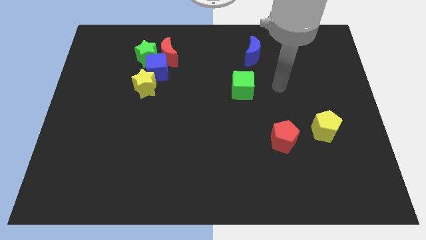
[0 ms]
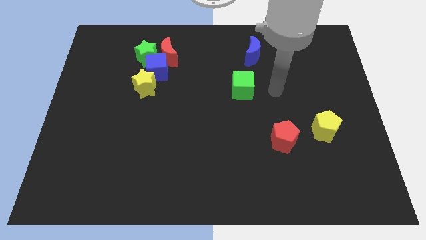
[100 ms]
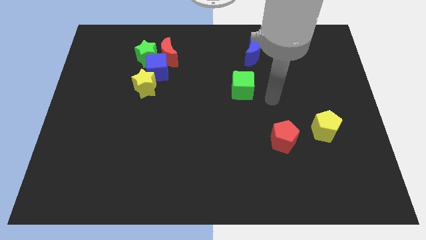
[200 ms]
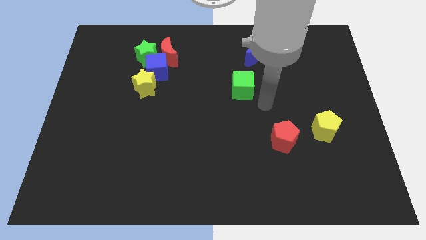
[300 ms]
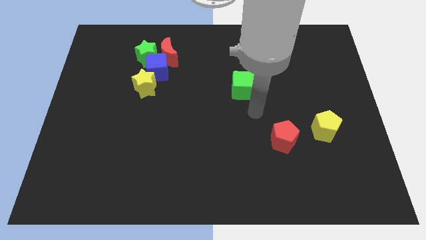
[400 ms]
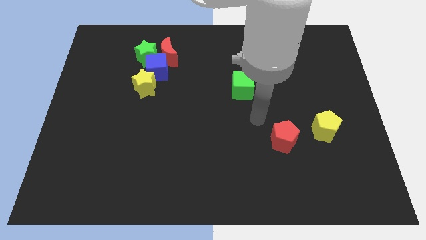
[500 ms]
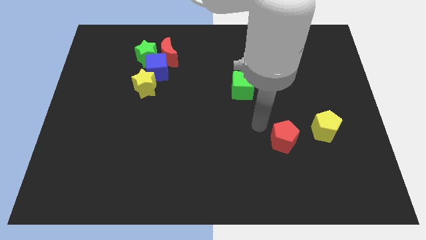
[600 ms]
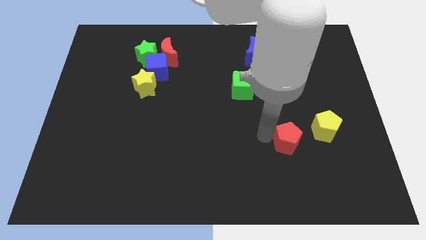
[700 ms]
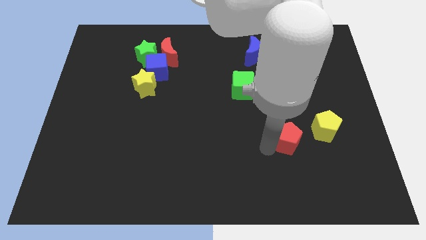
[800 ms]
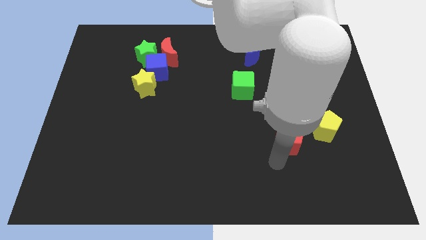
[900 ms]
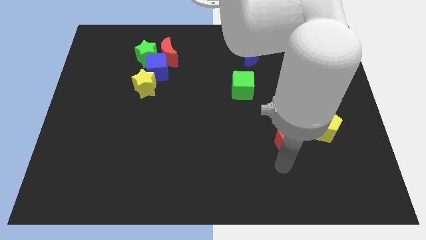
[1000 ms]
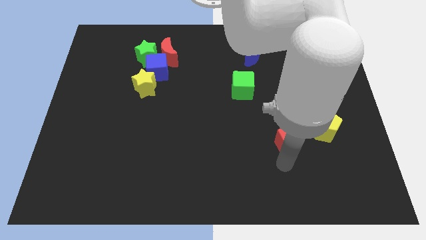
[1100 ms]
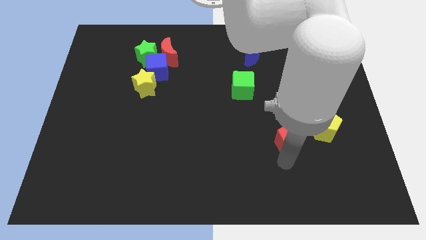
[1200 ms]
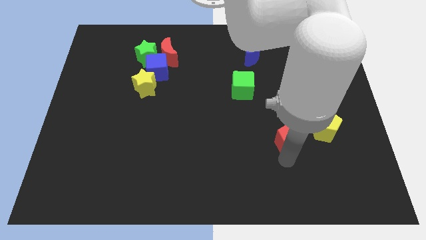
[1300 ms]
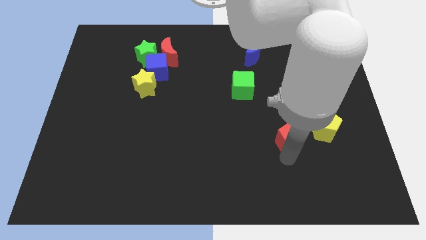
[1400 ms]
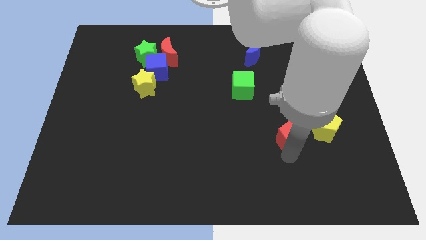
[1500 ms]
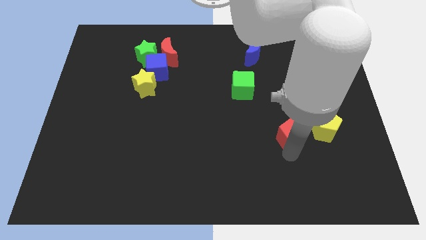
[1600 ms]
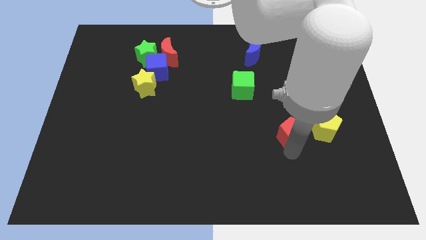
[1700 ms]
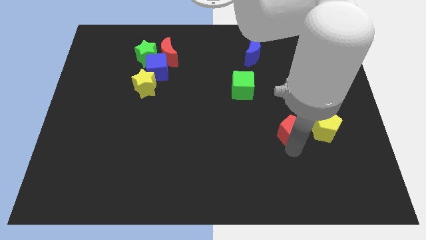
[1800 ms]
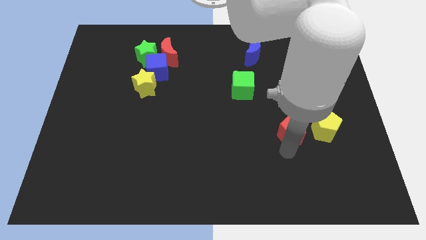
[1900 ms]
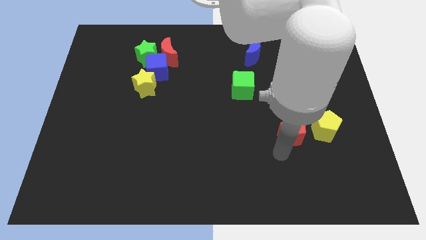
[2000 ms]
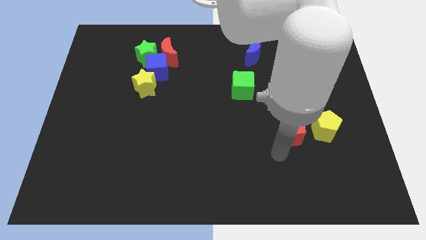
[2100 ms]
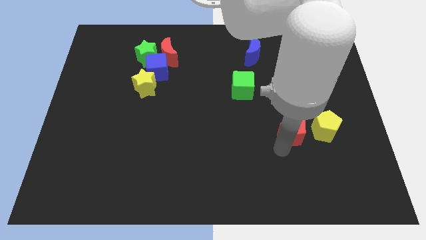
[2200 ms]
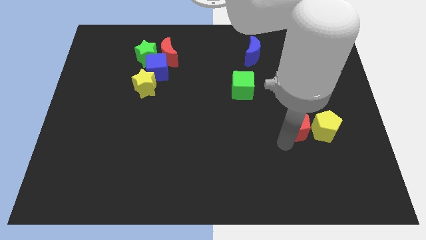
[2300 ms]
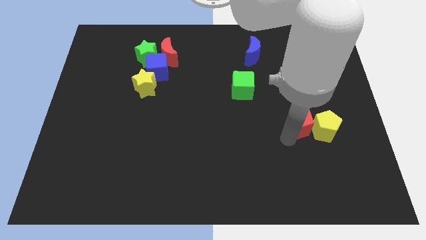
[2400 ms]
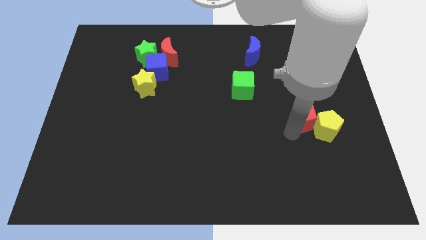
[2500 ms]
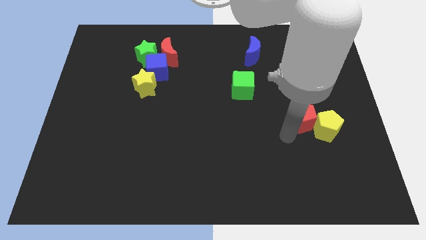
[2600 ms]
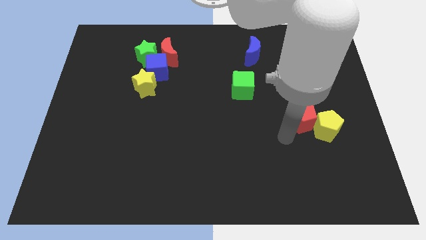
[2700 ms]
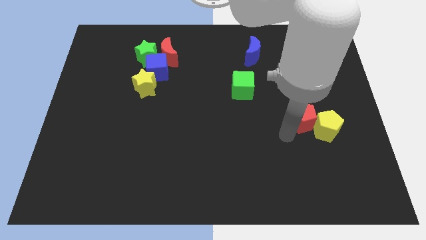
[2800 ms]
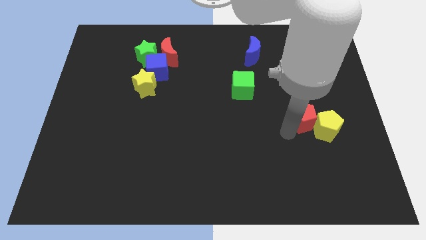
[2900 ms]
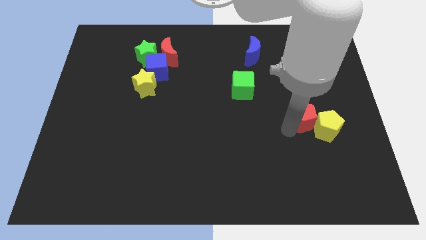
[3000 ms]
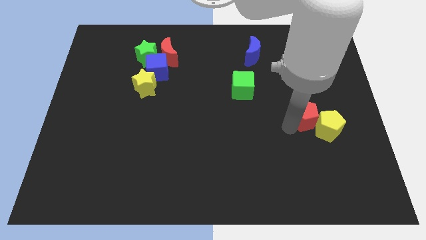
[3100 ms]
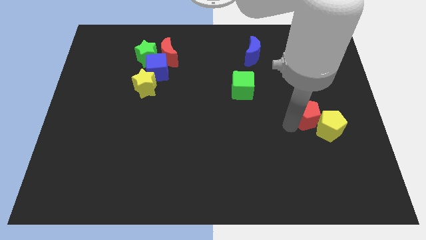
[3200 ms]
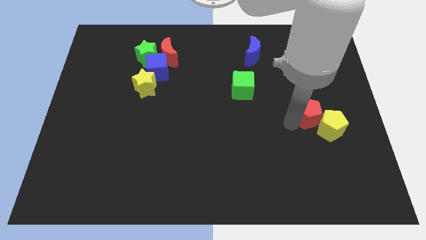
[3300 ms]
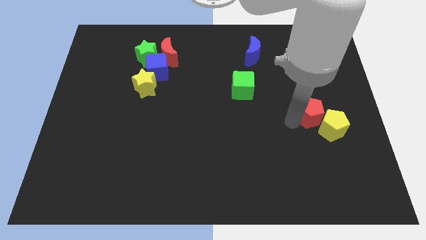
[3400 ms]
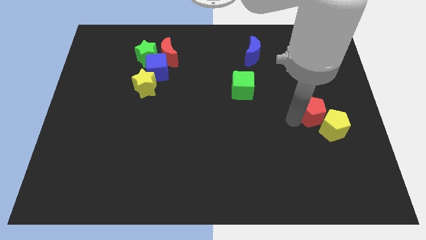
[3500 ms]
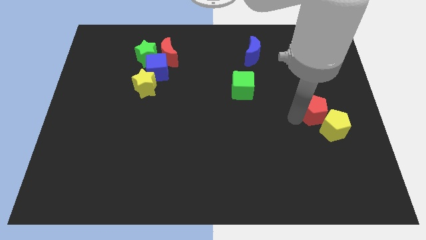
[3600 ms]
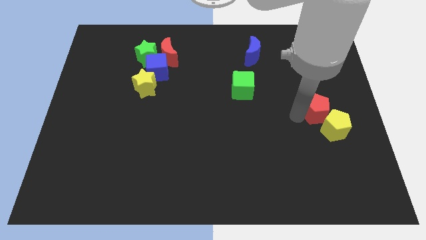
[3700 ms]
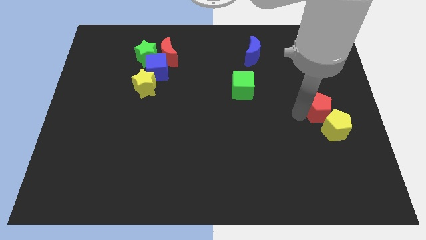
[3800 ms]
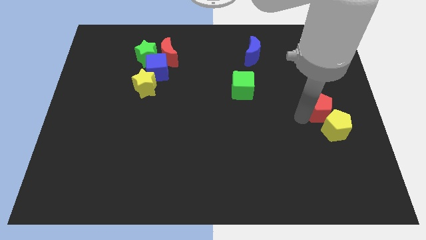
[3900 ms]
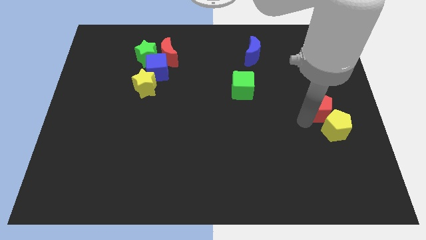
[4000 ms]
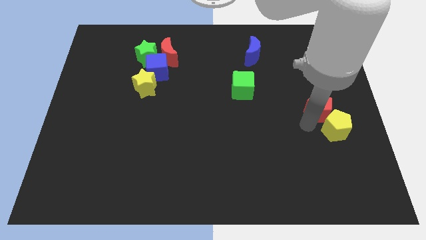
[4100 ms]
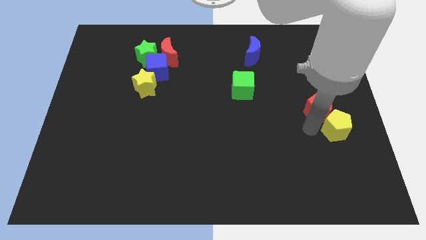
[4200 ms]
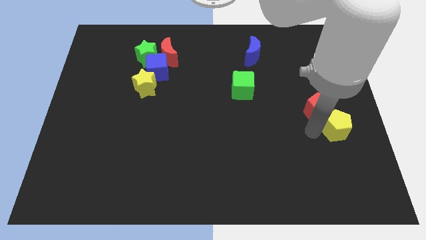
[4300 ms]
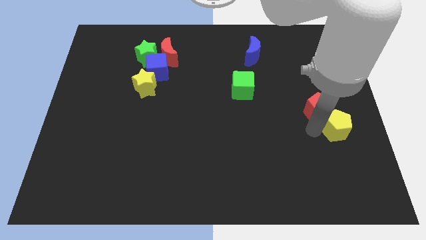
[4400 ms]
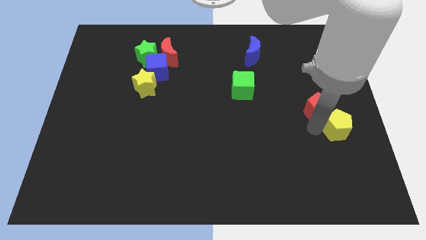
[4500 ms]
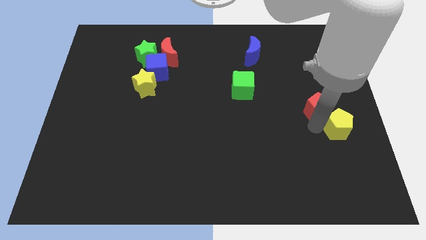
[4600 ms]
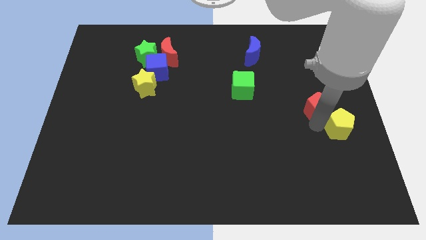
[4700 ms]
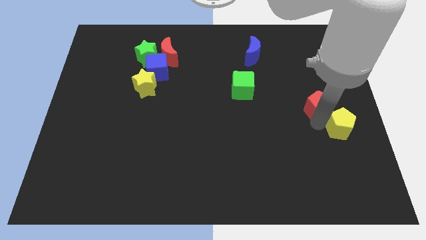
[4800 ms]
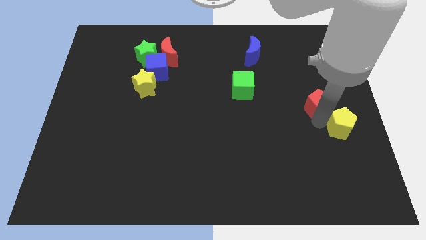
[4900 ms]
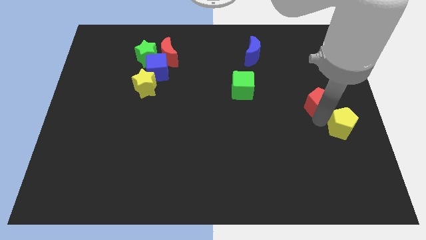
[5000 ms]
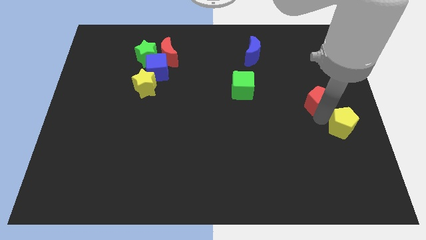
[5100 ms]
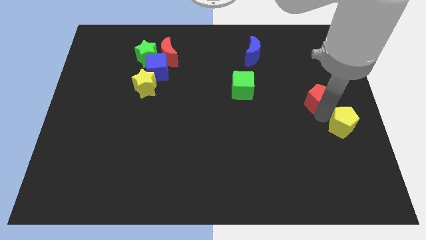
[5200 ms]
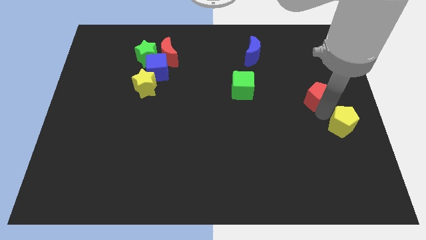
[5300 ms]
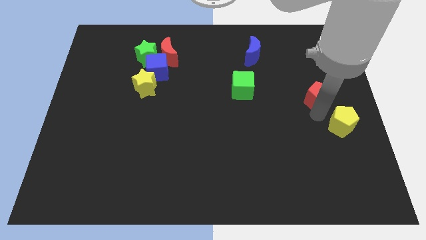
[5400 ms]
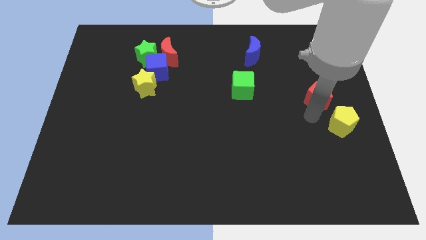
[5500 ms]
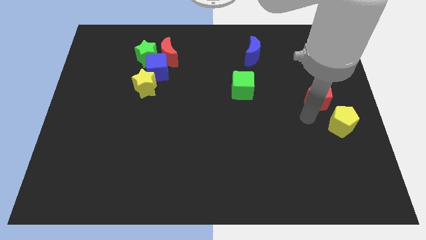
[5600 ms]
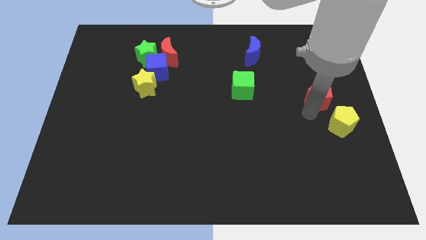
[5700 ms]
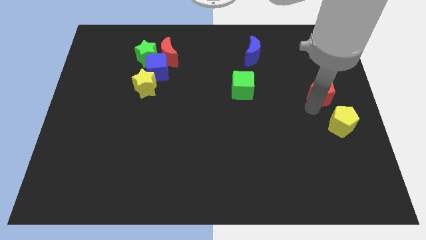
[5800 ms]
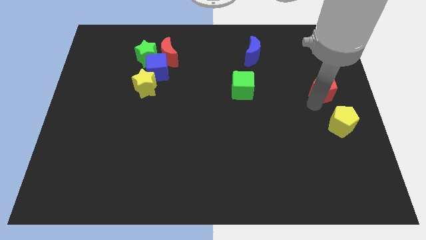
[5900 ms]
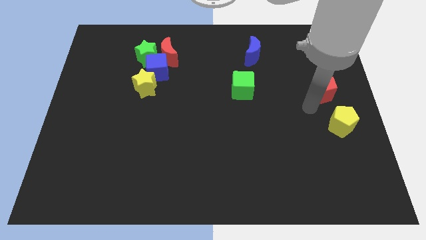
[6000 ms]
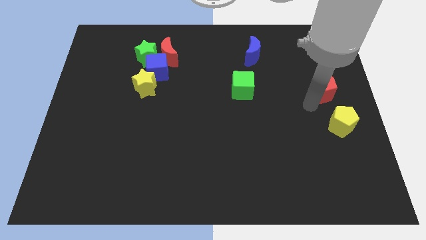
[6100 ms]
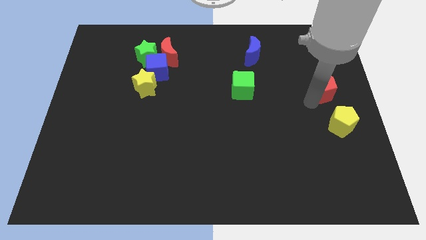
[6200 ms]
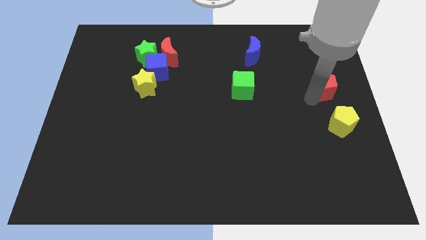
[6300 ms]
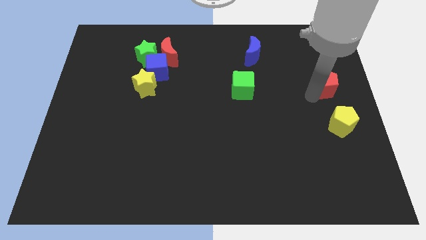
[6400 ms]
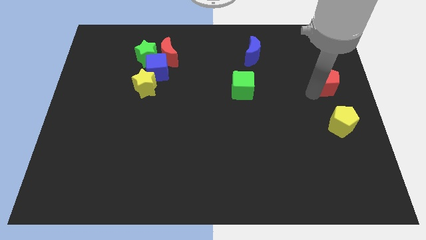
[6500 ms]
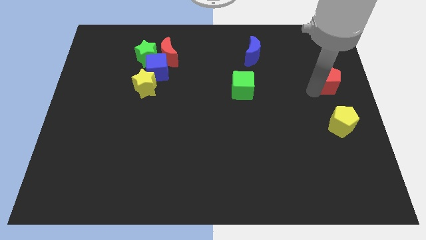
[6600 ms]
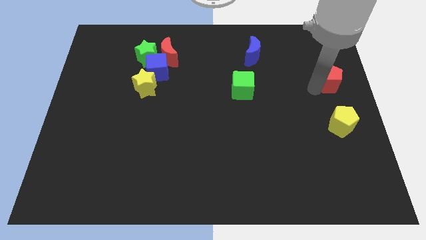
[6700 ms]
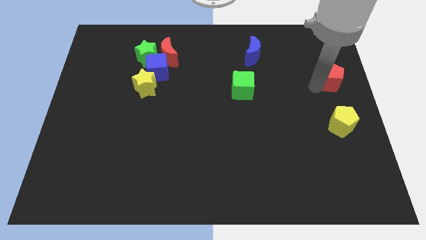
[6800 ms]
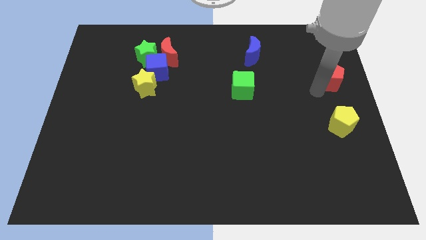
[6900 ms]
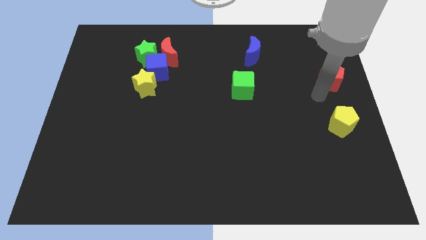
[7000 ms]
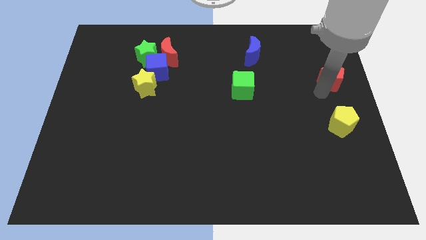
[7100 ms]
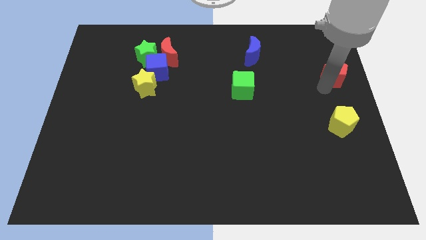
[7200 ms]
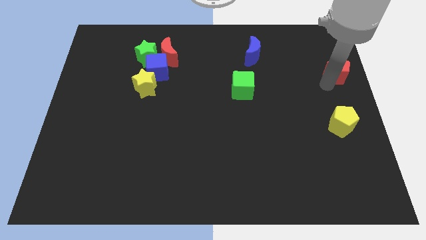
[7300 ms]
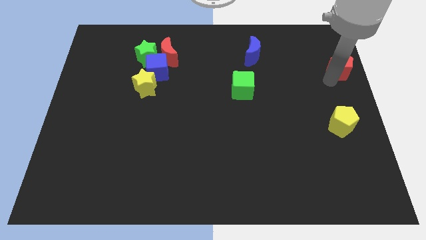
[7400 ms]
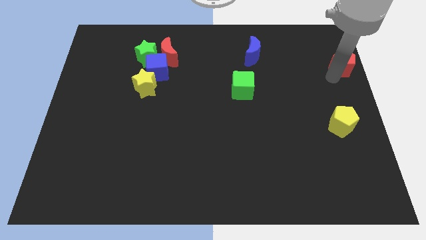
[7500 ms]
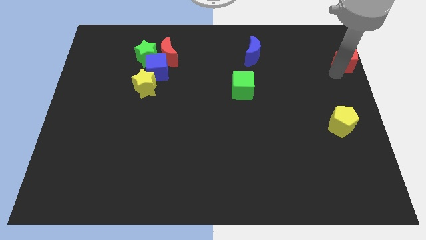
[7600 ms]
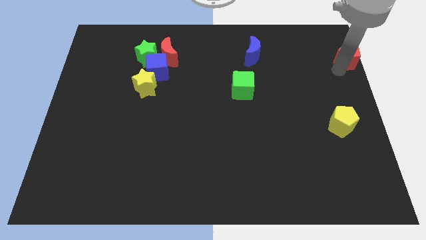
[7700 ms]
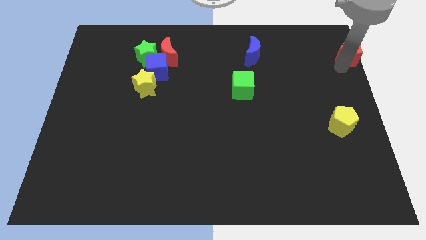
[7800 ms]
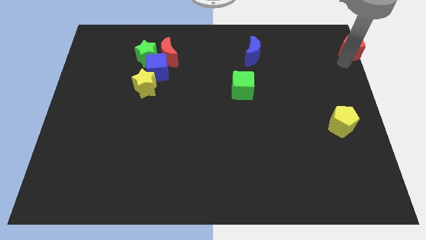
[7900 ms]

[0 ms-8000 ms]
slide the red pentagon to the upper right corner
